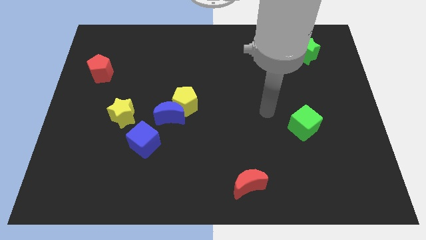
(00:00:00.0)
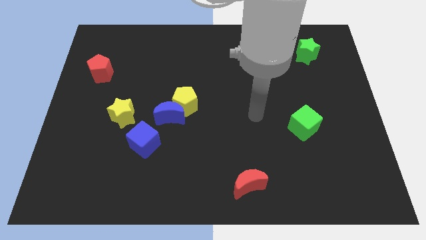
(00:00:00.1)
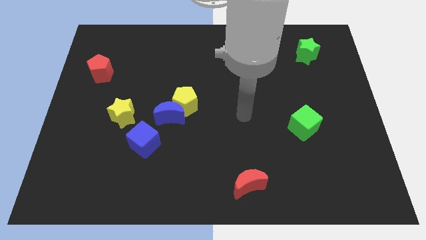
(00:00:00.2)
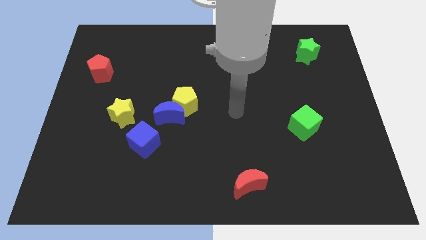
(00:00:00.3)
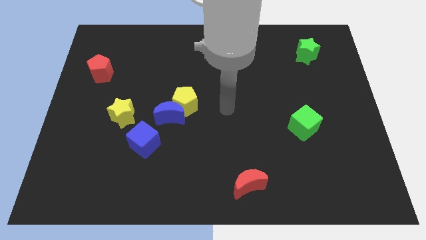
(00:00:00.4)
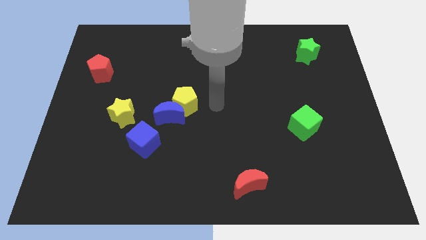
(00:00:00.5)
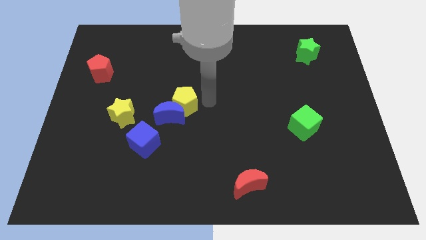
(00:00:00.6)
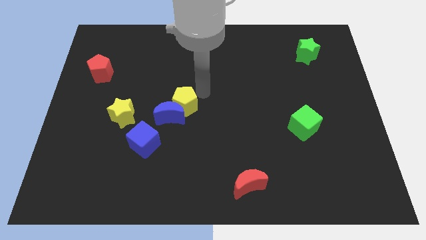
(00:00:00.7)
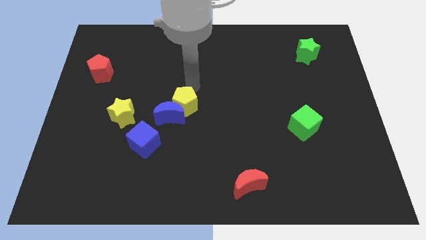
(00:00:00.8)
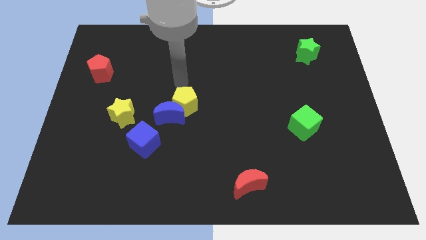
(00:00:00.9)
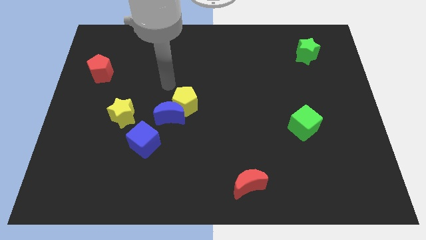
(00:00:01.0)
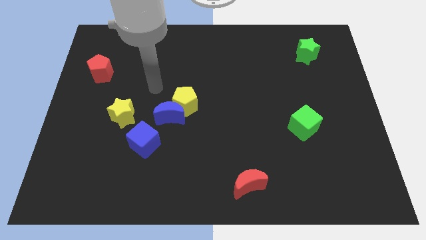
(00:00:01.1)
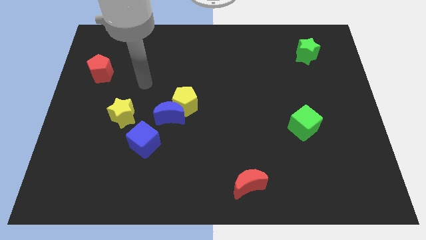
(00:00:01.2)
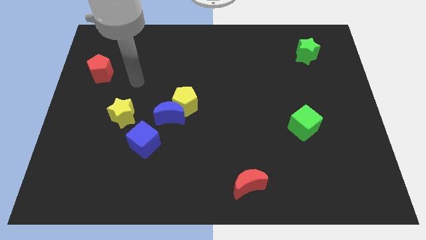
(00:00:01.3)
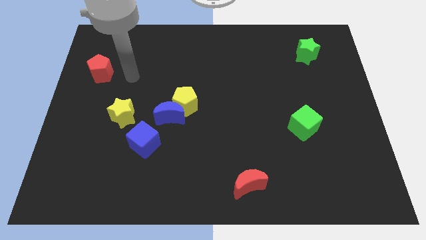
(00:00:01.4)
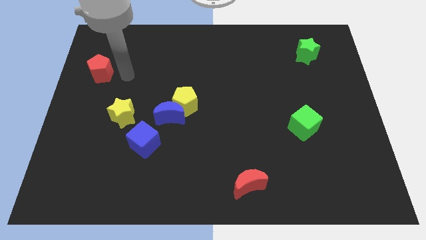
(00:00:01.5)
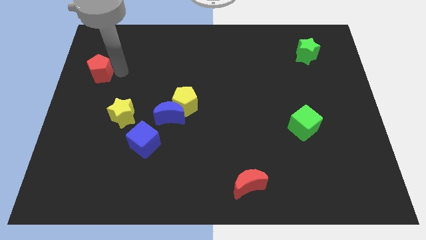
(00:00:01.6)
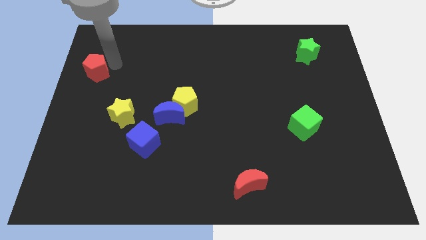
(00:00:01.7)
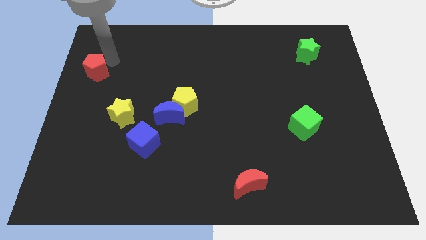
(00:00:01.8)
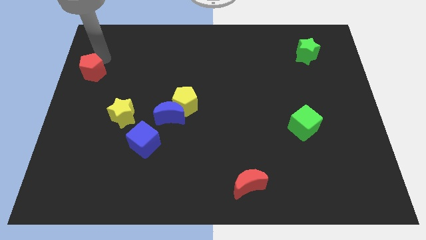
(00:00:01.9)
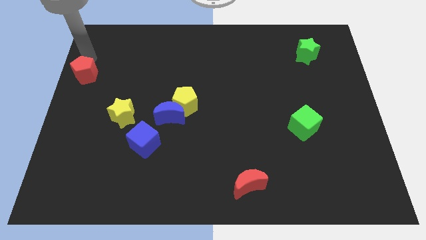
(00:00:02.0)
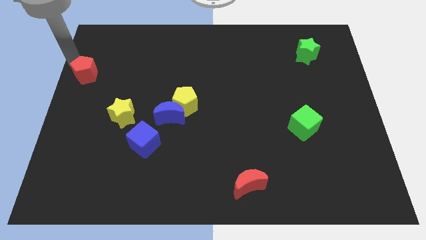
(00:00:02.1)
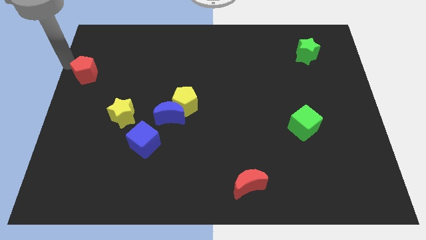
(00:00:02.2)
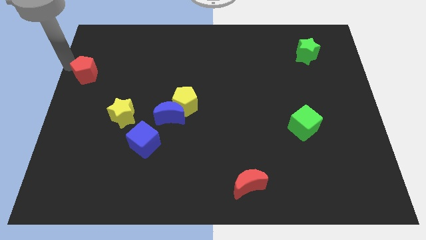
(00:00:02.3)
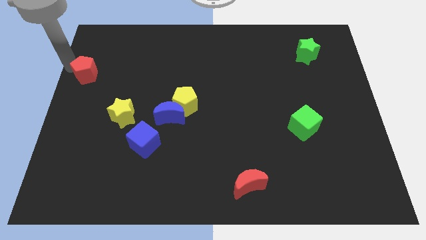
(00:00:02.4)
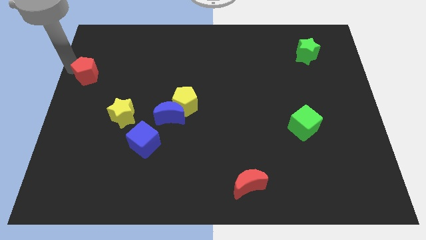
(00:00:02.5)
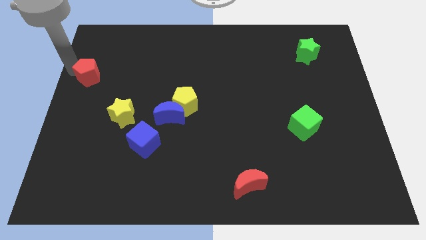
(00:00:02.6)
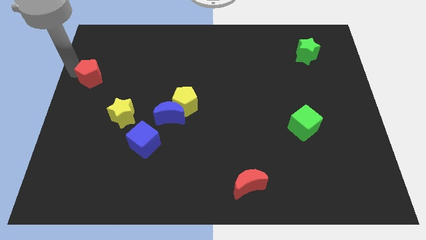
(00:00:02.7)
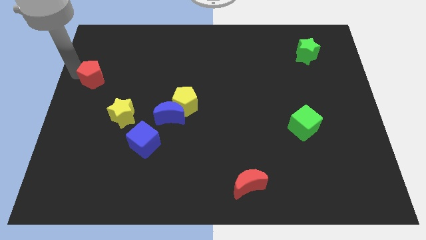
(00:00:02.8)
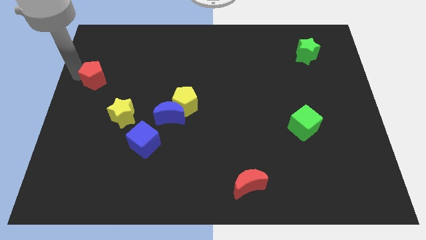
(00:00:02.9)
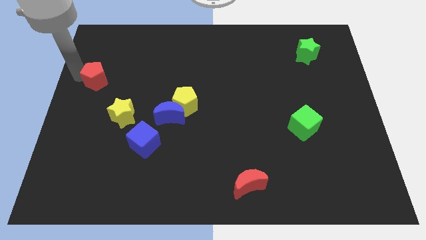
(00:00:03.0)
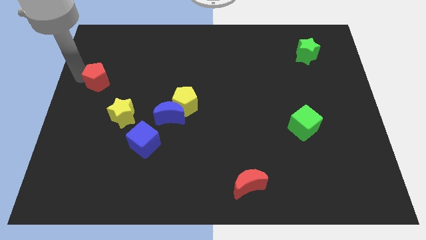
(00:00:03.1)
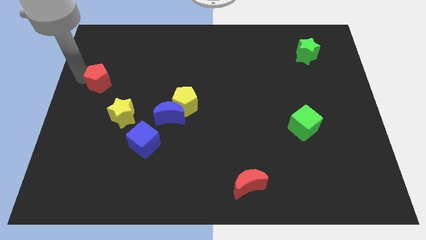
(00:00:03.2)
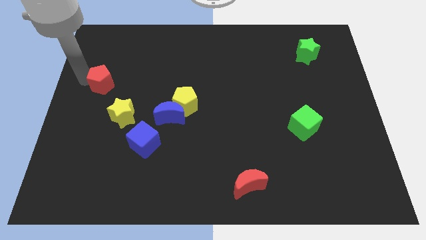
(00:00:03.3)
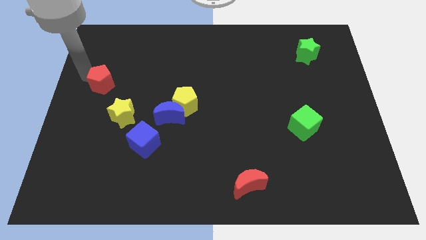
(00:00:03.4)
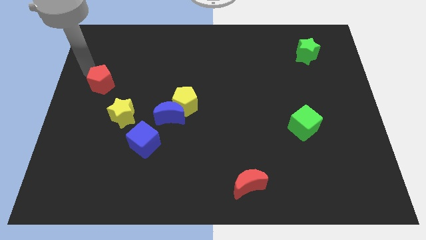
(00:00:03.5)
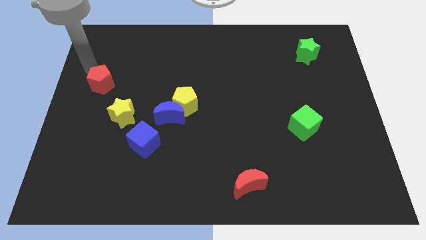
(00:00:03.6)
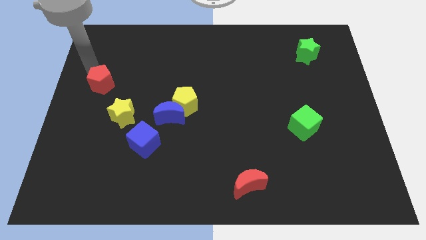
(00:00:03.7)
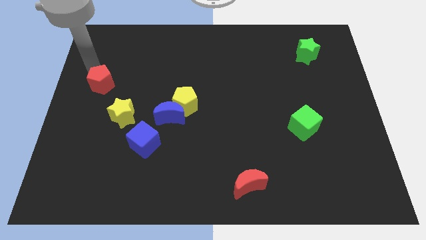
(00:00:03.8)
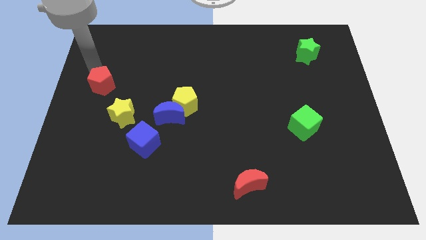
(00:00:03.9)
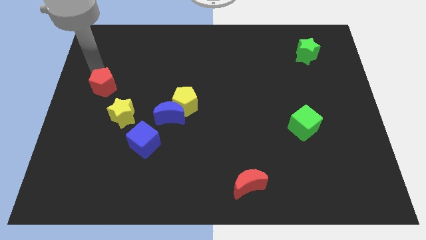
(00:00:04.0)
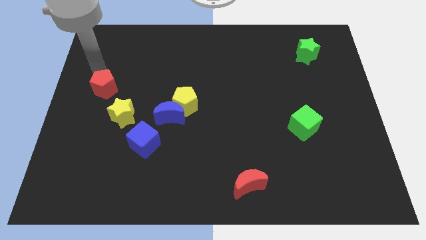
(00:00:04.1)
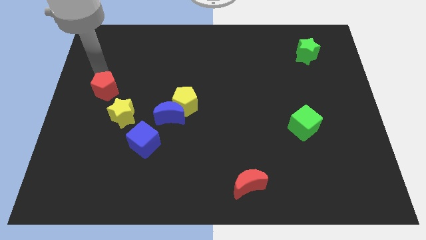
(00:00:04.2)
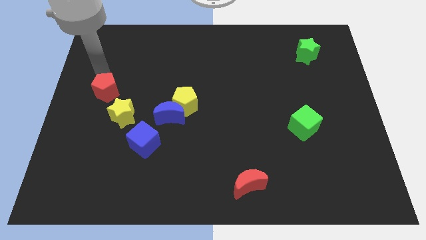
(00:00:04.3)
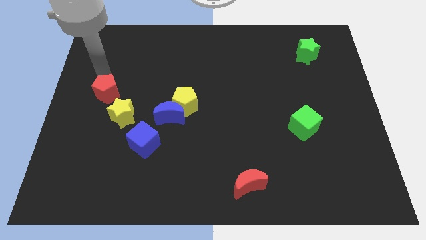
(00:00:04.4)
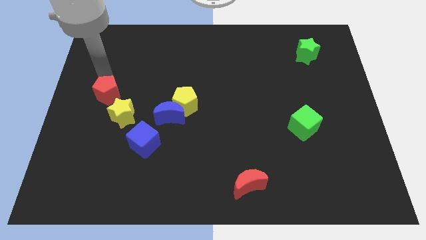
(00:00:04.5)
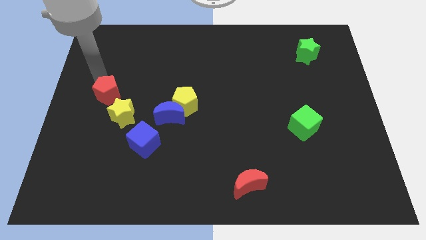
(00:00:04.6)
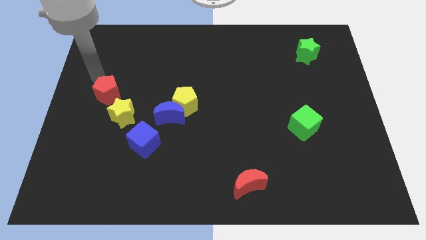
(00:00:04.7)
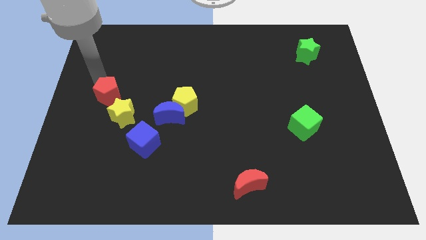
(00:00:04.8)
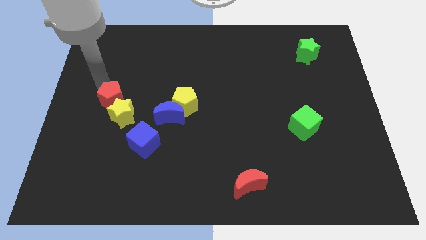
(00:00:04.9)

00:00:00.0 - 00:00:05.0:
move the red pentagon next to the yellow star

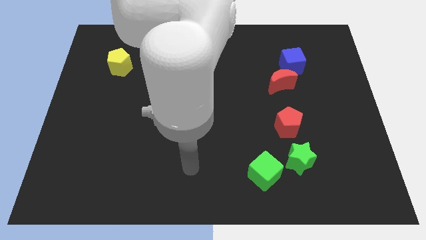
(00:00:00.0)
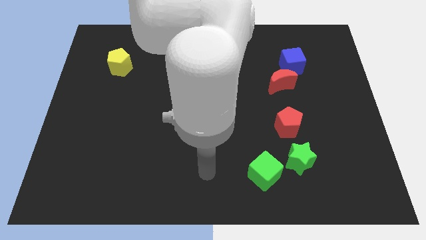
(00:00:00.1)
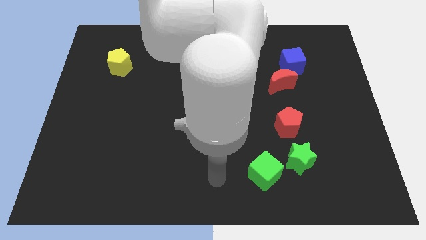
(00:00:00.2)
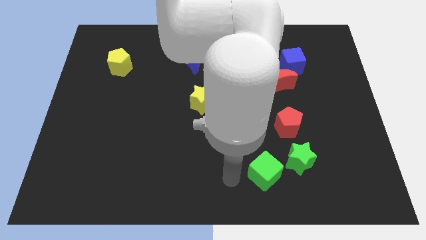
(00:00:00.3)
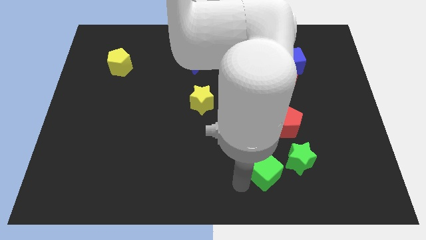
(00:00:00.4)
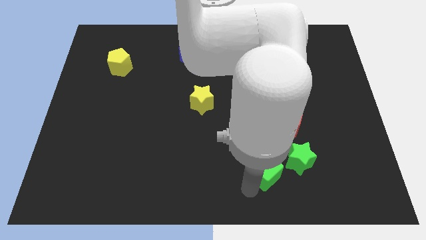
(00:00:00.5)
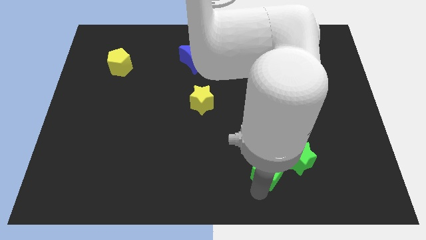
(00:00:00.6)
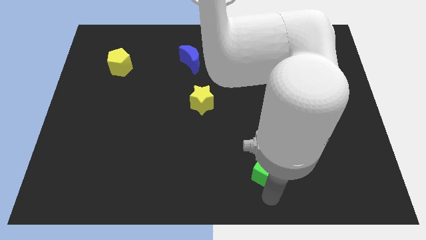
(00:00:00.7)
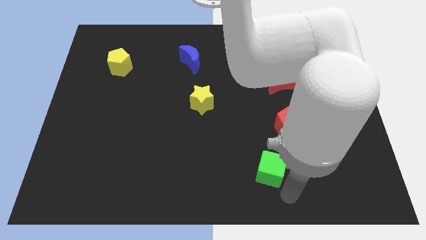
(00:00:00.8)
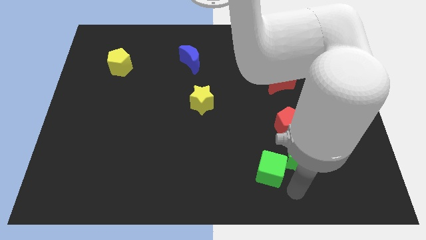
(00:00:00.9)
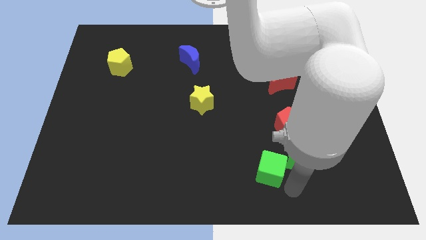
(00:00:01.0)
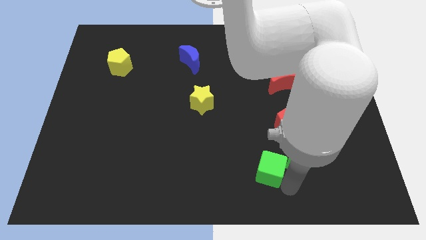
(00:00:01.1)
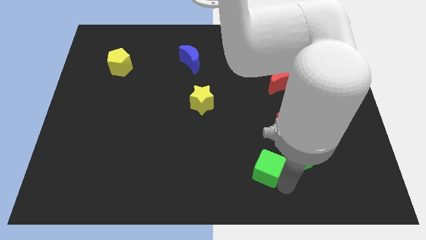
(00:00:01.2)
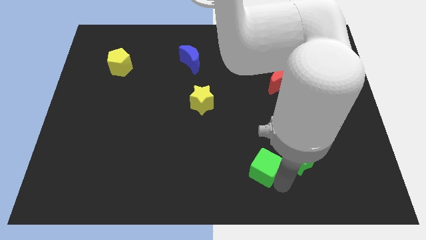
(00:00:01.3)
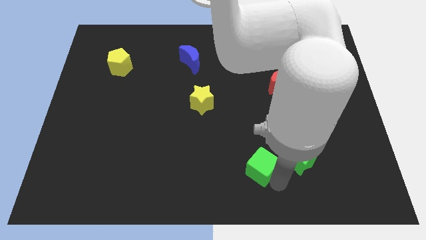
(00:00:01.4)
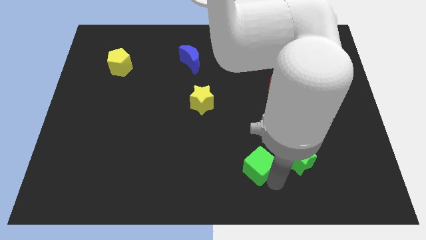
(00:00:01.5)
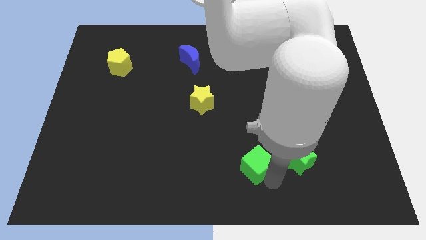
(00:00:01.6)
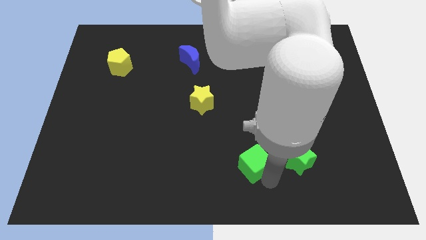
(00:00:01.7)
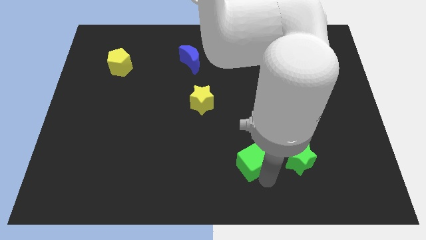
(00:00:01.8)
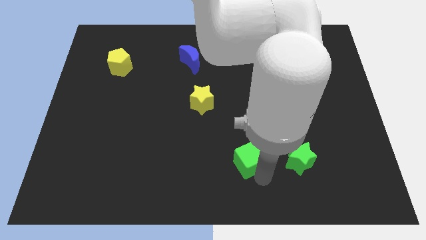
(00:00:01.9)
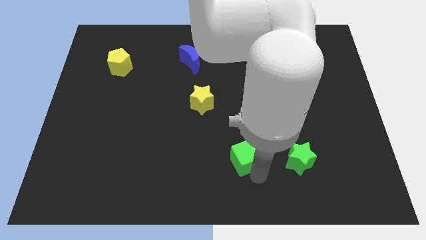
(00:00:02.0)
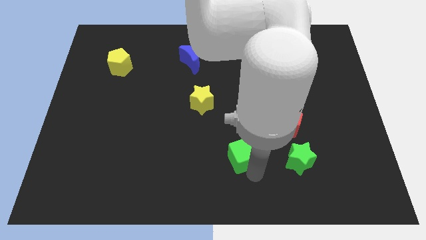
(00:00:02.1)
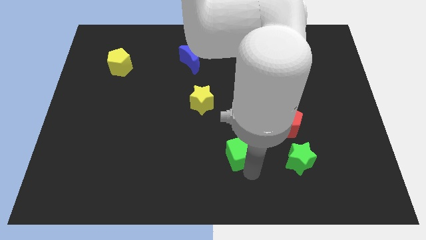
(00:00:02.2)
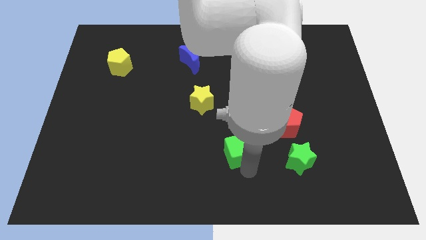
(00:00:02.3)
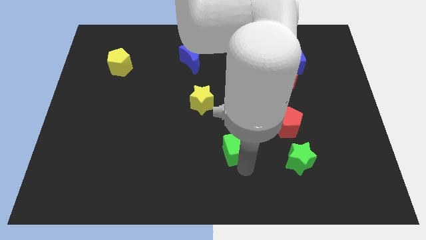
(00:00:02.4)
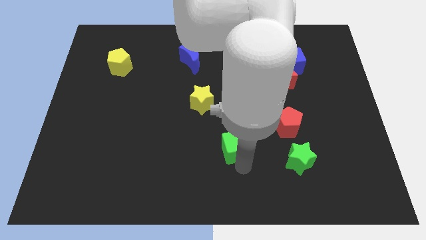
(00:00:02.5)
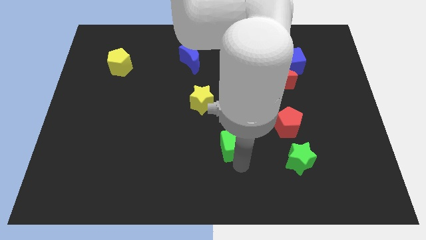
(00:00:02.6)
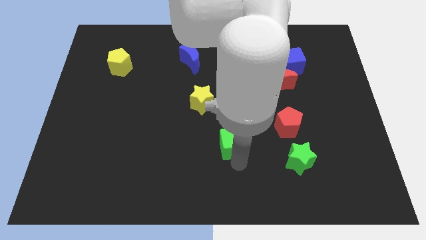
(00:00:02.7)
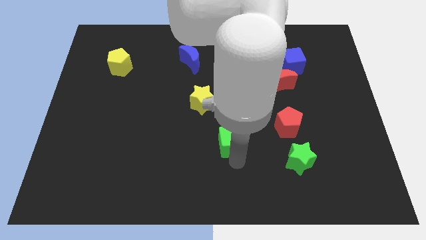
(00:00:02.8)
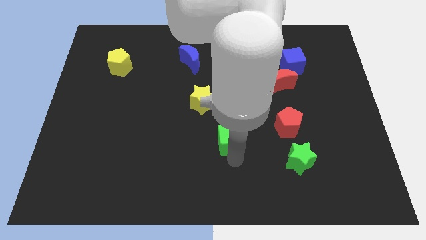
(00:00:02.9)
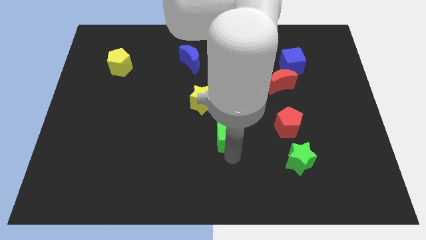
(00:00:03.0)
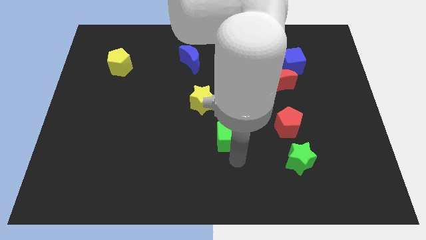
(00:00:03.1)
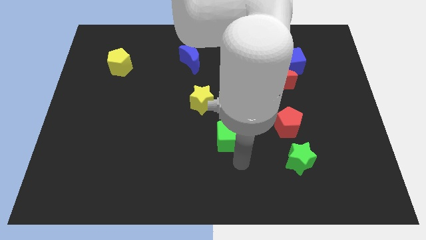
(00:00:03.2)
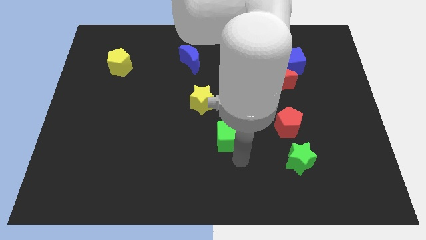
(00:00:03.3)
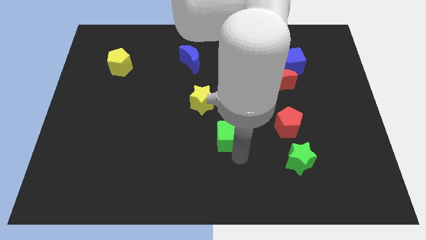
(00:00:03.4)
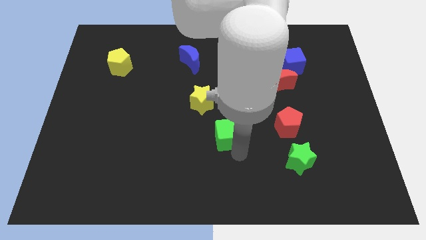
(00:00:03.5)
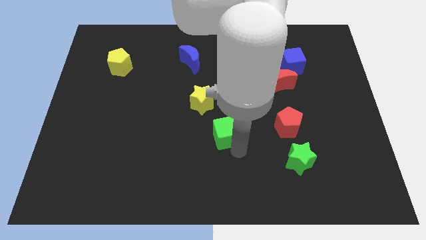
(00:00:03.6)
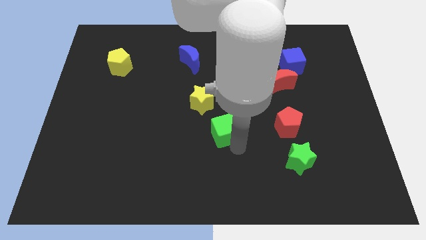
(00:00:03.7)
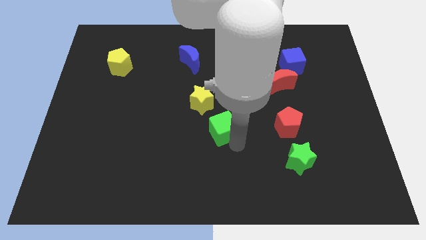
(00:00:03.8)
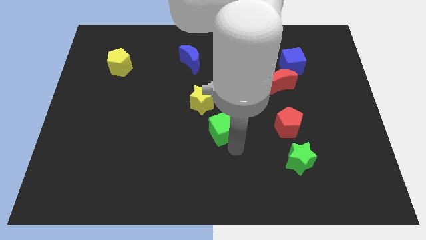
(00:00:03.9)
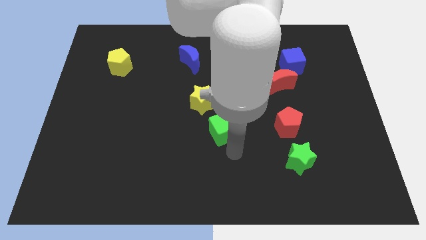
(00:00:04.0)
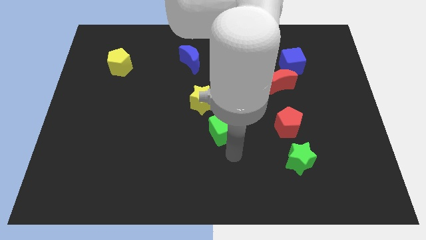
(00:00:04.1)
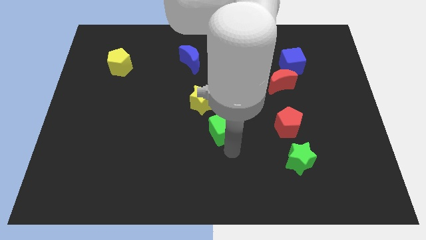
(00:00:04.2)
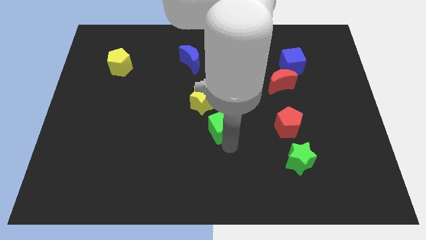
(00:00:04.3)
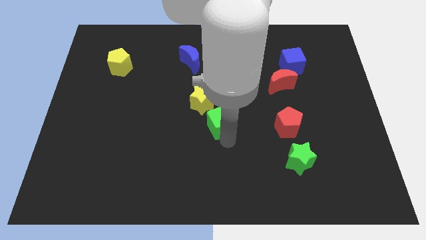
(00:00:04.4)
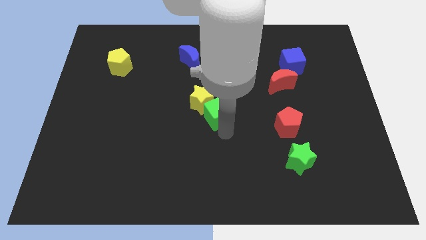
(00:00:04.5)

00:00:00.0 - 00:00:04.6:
slide the green cube towards the yellow star
